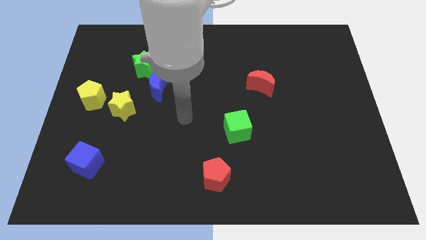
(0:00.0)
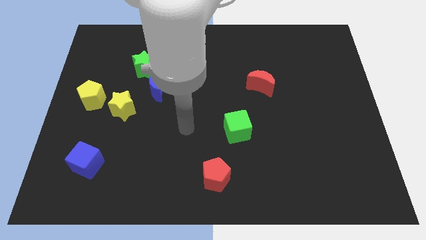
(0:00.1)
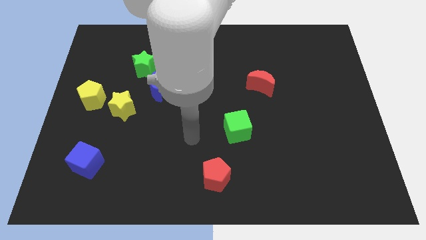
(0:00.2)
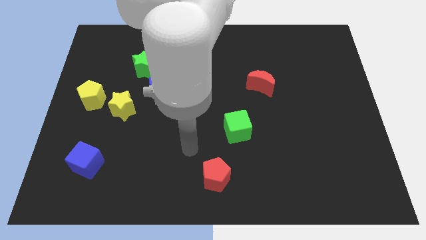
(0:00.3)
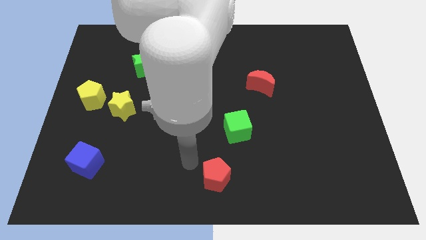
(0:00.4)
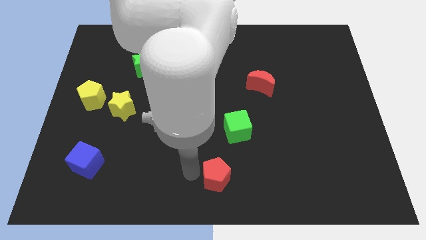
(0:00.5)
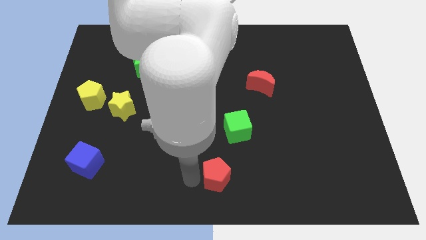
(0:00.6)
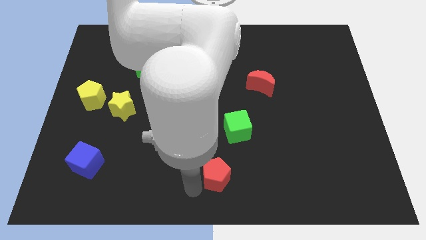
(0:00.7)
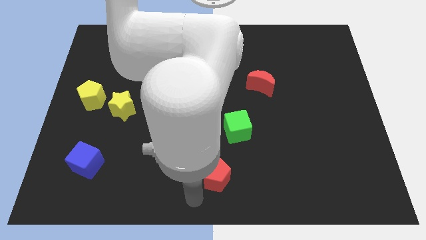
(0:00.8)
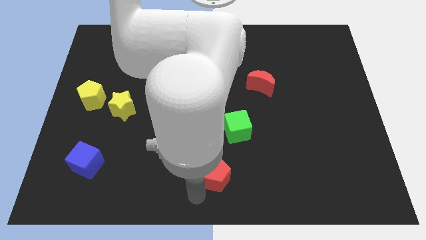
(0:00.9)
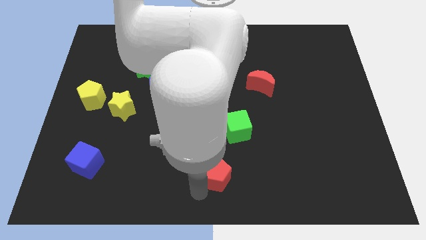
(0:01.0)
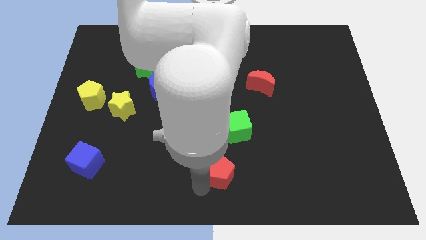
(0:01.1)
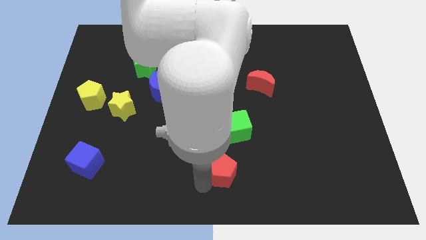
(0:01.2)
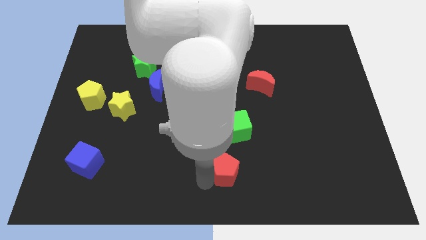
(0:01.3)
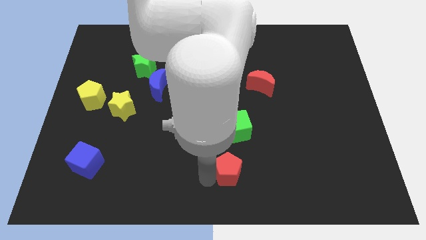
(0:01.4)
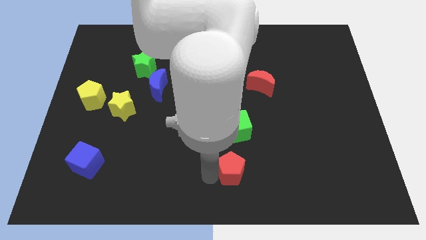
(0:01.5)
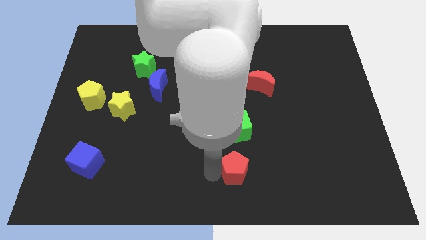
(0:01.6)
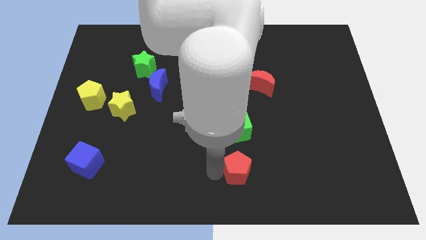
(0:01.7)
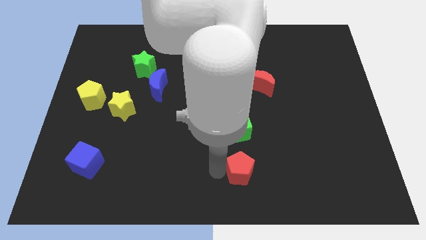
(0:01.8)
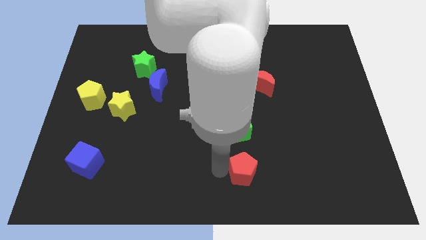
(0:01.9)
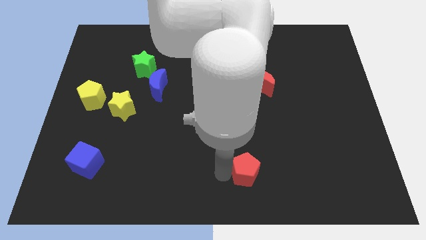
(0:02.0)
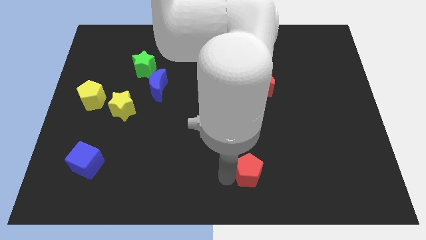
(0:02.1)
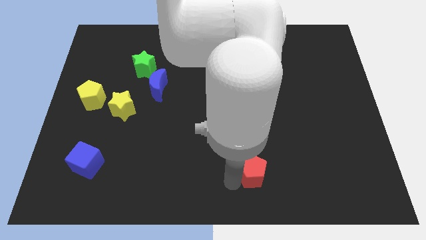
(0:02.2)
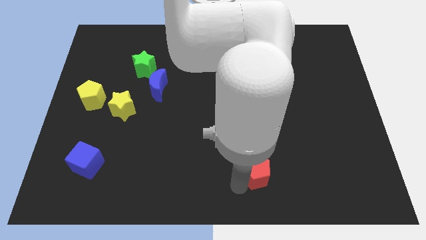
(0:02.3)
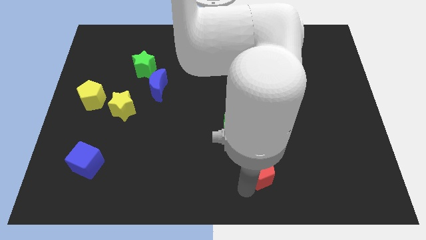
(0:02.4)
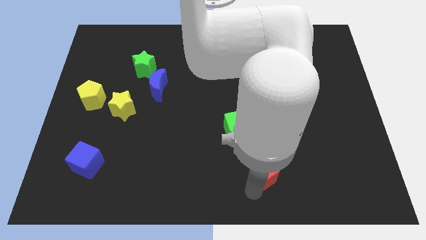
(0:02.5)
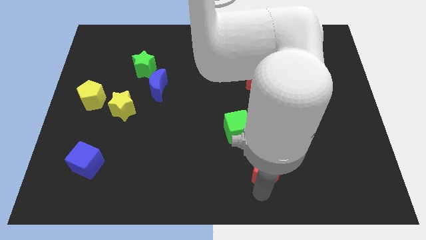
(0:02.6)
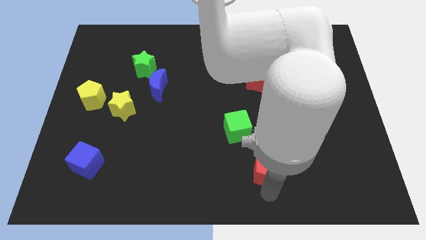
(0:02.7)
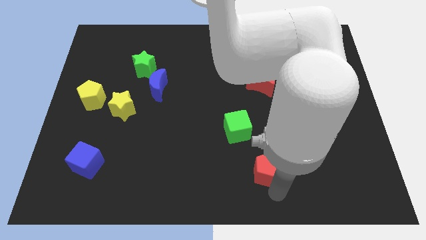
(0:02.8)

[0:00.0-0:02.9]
slide the red pentagon somewhat upwards and then to the right

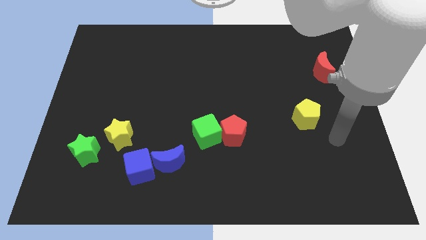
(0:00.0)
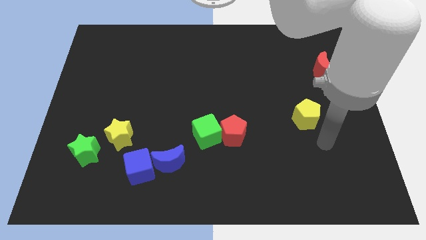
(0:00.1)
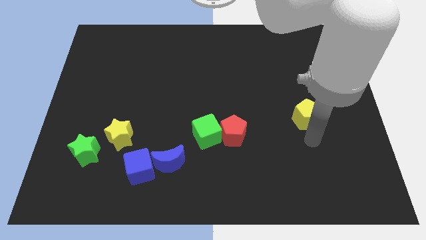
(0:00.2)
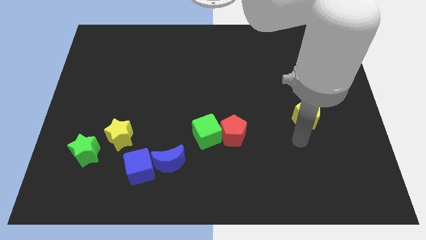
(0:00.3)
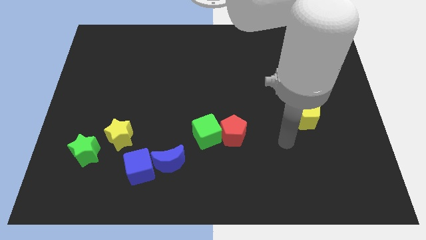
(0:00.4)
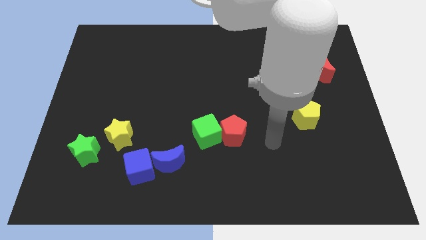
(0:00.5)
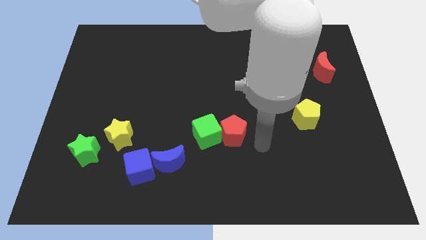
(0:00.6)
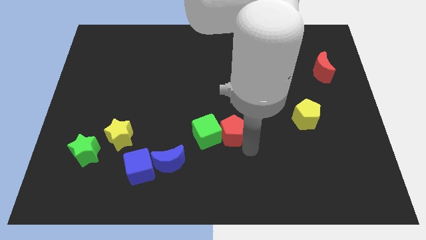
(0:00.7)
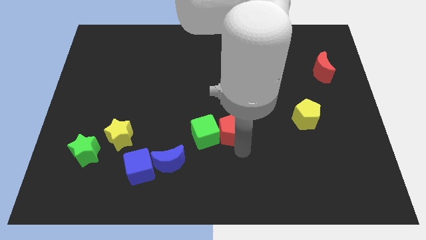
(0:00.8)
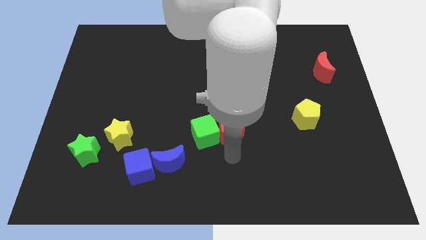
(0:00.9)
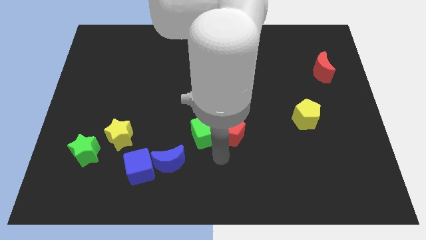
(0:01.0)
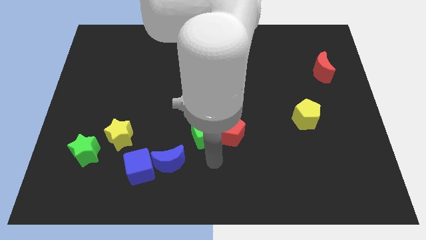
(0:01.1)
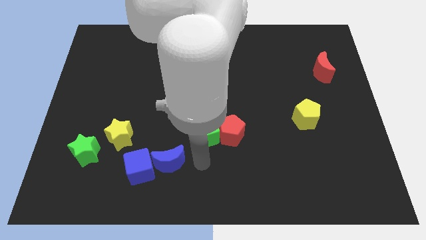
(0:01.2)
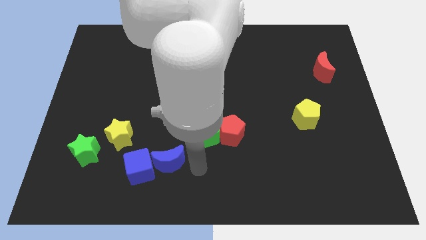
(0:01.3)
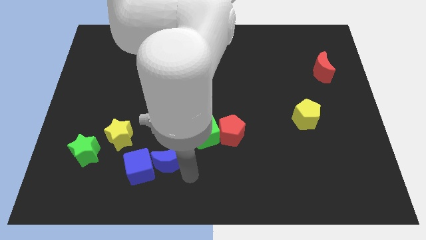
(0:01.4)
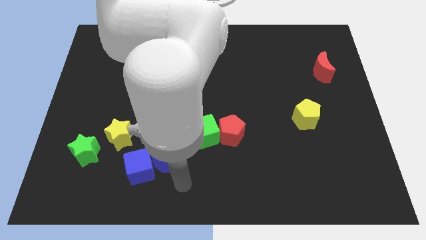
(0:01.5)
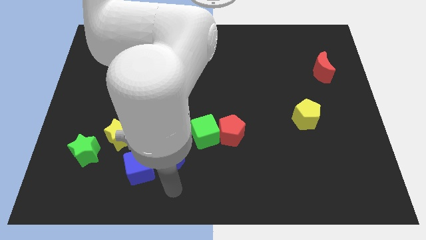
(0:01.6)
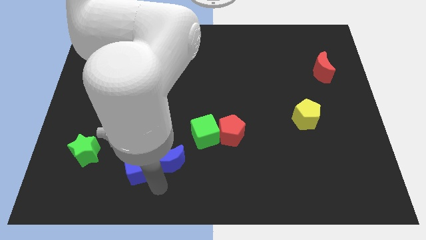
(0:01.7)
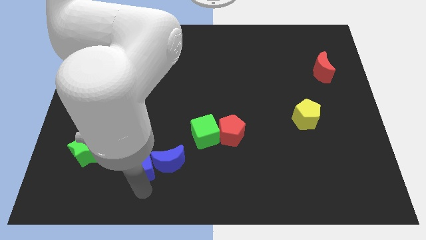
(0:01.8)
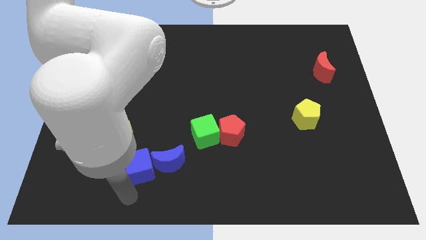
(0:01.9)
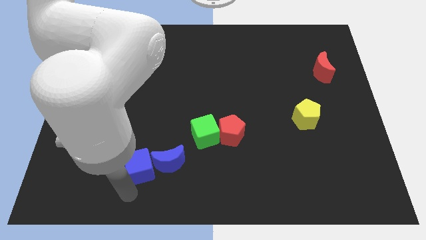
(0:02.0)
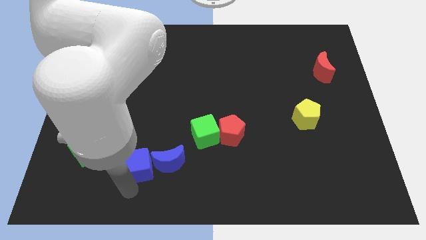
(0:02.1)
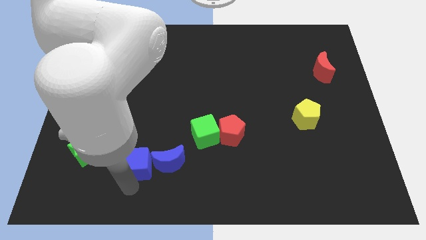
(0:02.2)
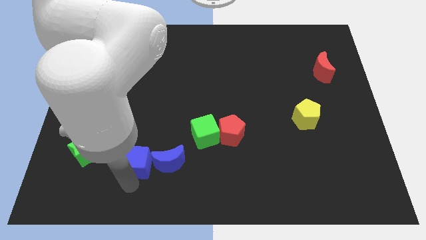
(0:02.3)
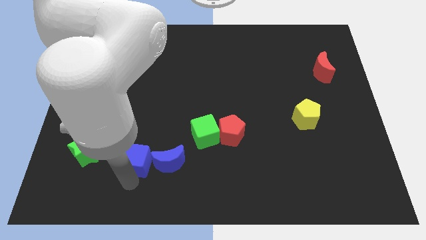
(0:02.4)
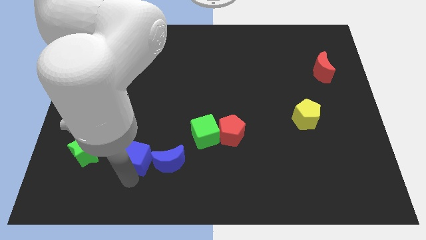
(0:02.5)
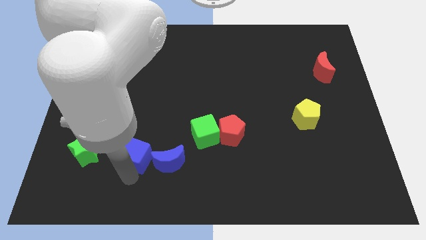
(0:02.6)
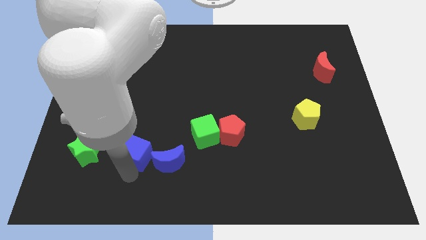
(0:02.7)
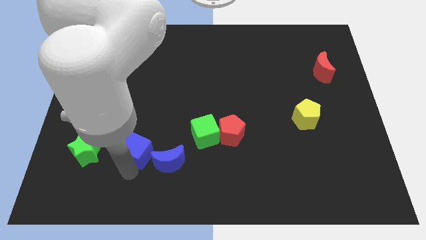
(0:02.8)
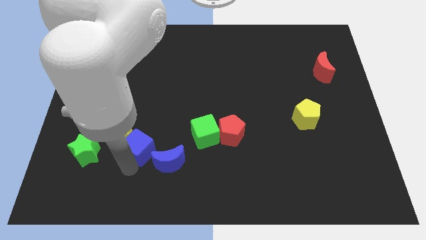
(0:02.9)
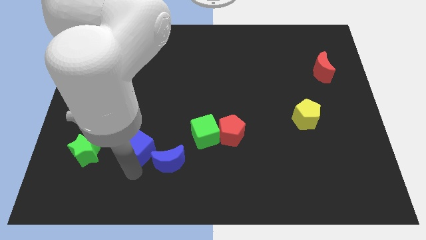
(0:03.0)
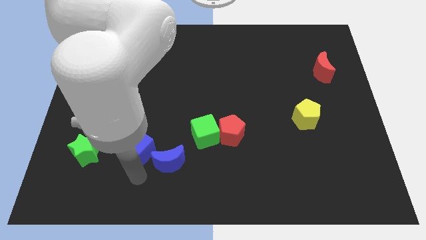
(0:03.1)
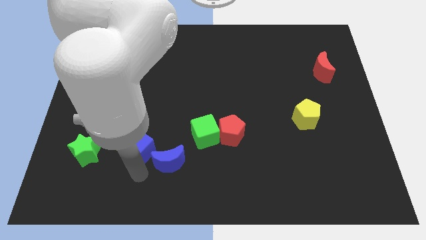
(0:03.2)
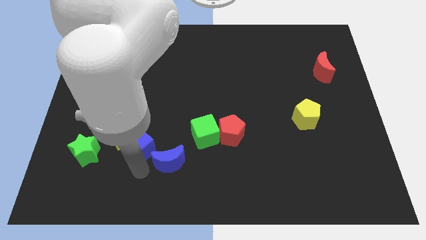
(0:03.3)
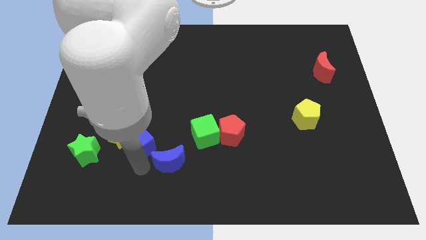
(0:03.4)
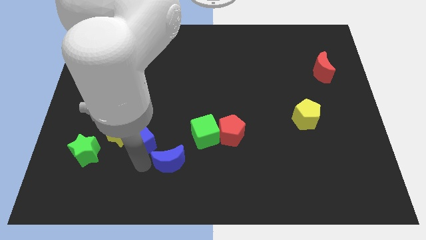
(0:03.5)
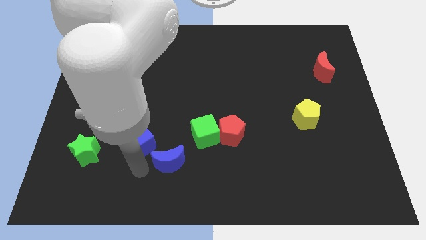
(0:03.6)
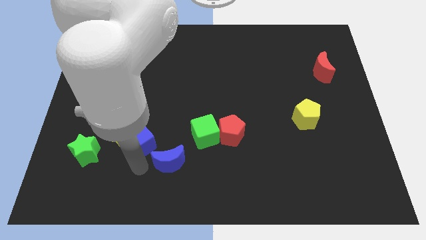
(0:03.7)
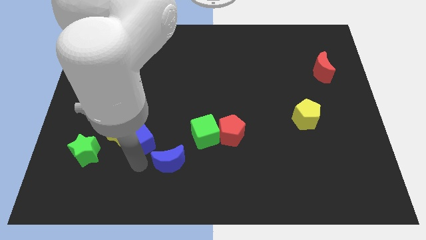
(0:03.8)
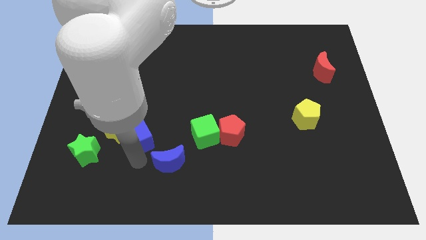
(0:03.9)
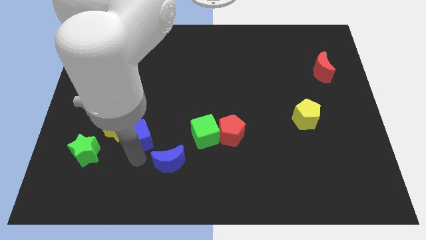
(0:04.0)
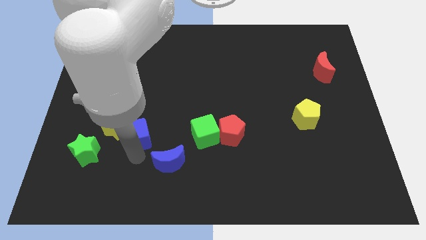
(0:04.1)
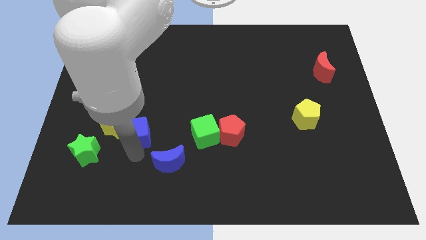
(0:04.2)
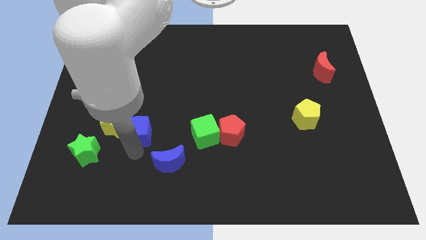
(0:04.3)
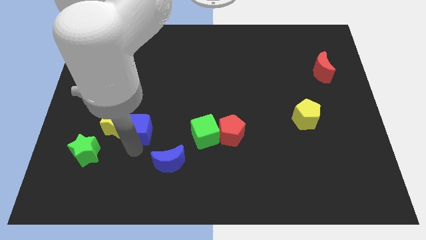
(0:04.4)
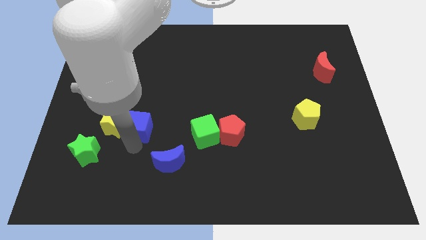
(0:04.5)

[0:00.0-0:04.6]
push the blue cube a little bit up and to the left

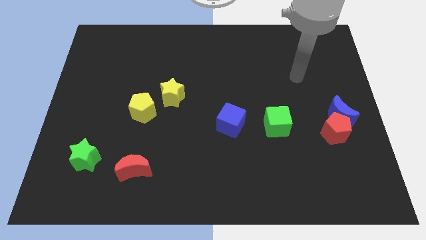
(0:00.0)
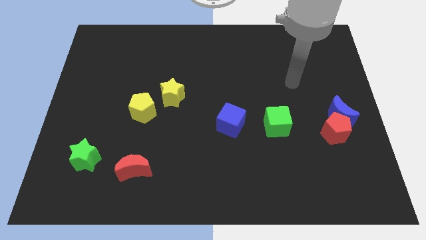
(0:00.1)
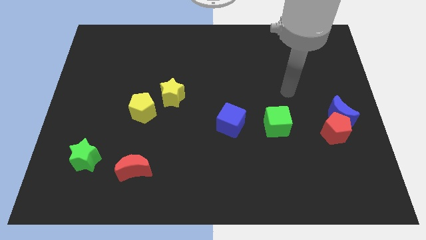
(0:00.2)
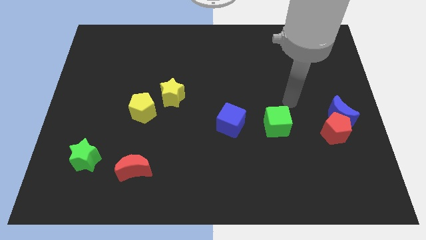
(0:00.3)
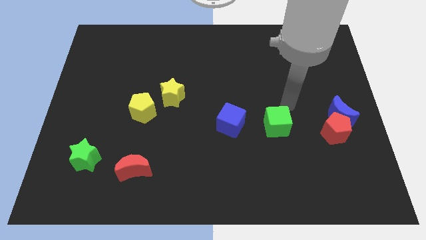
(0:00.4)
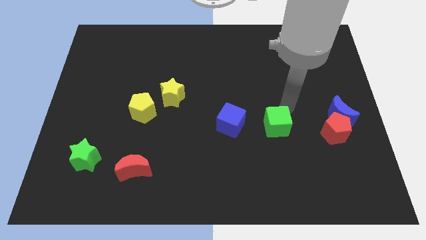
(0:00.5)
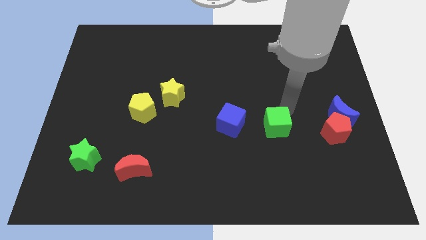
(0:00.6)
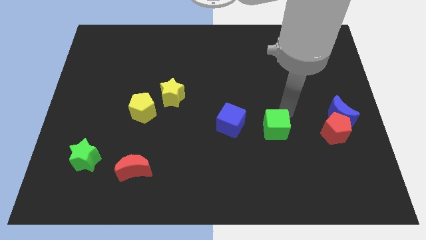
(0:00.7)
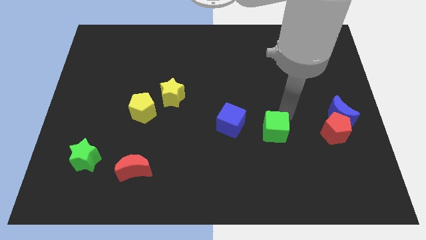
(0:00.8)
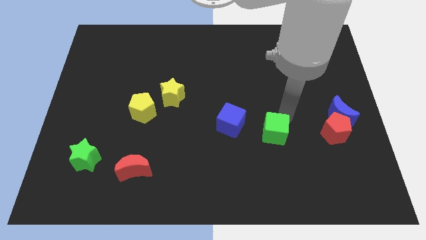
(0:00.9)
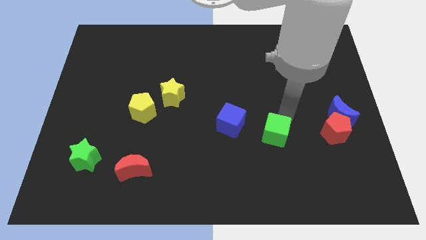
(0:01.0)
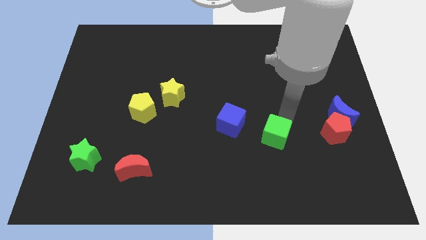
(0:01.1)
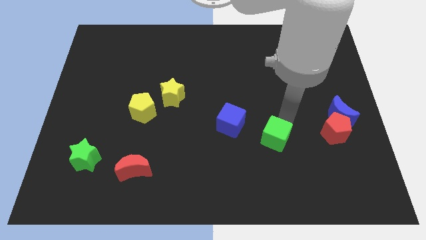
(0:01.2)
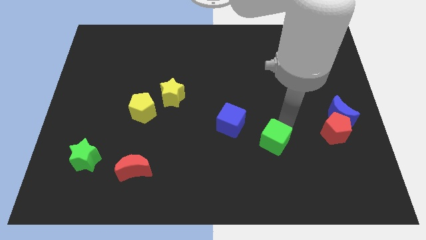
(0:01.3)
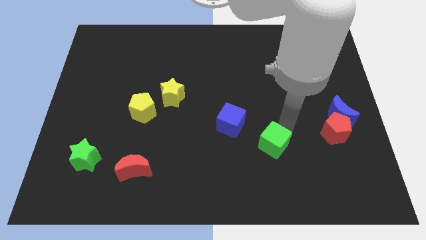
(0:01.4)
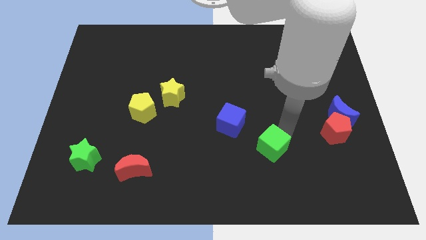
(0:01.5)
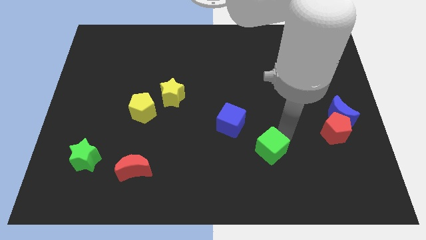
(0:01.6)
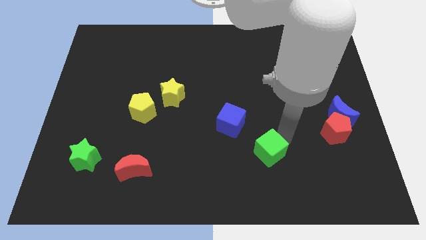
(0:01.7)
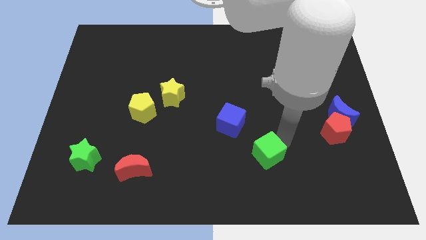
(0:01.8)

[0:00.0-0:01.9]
slide the green cube downwards and to the left a little
